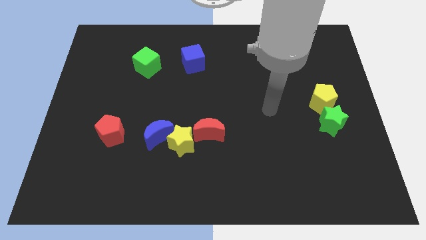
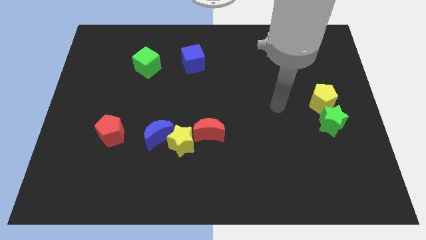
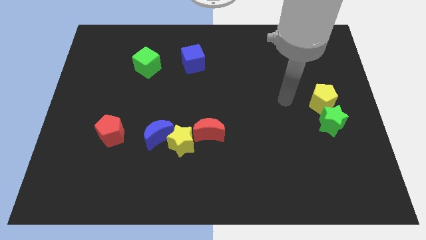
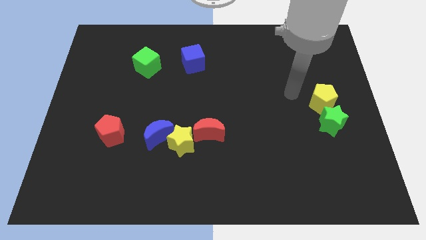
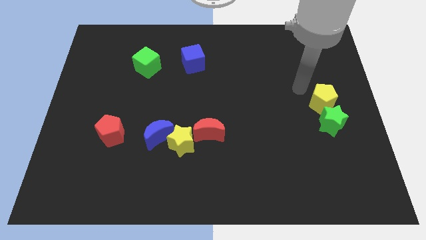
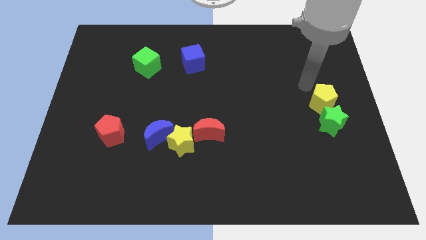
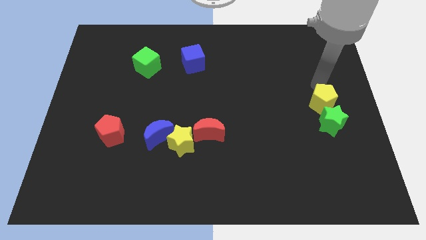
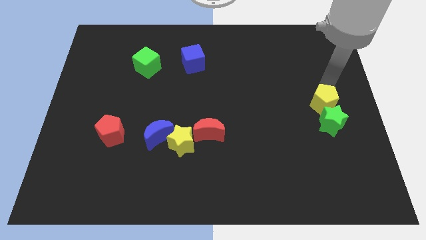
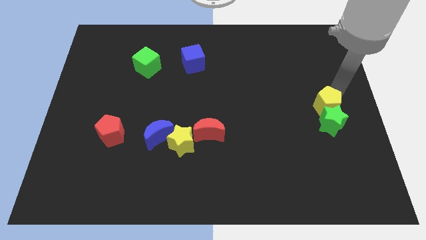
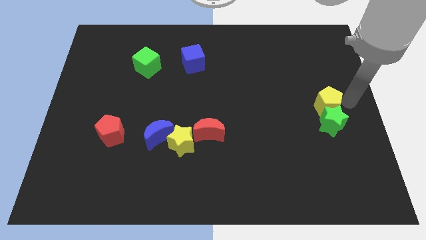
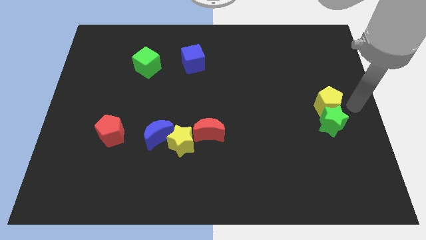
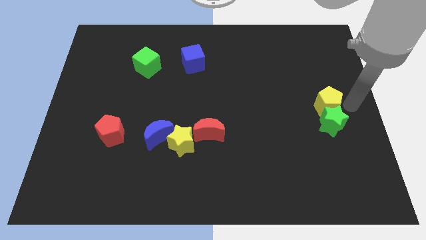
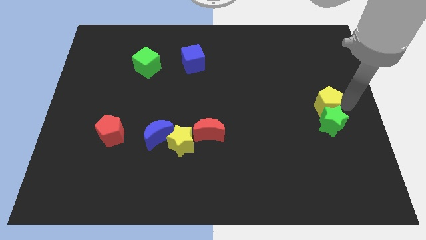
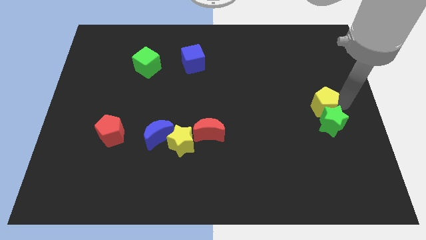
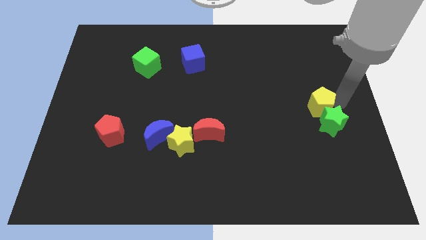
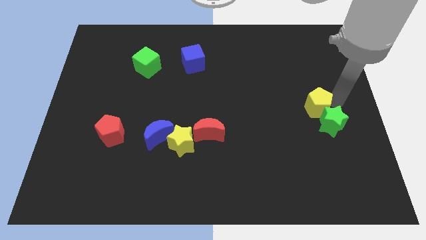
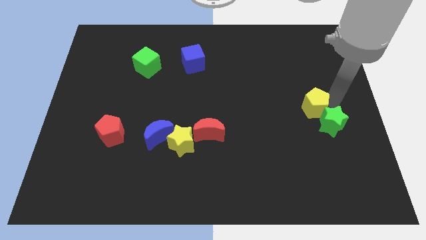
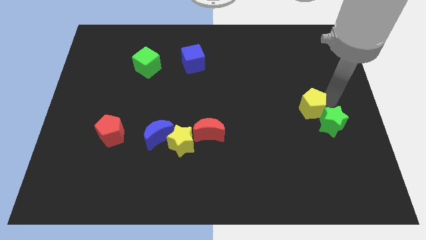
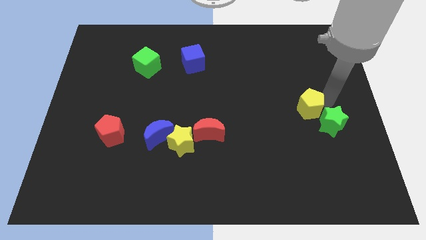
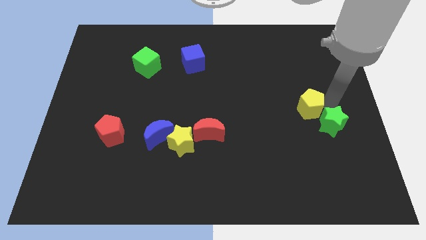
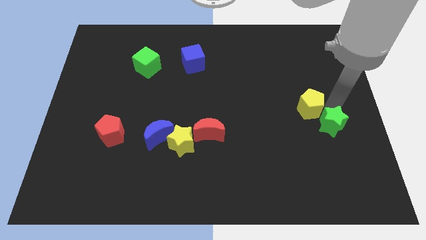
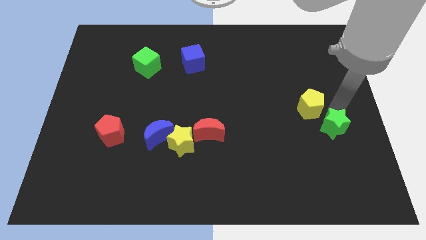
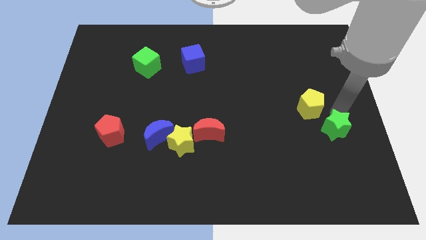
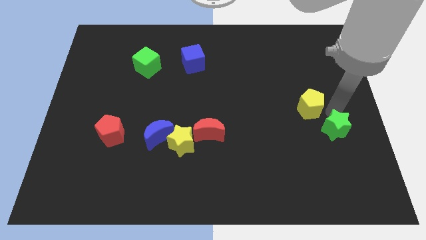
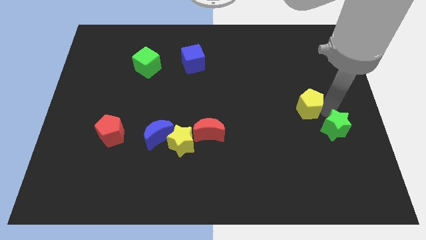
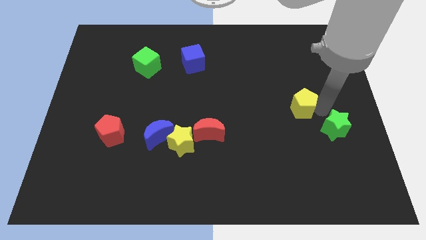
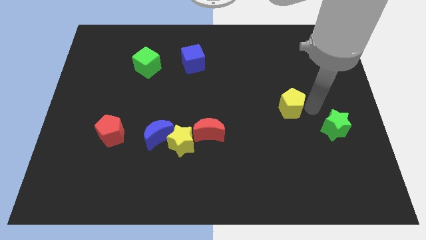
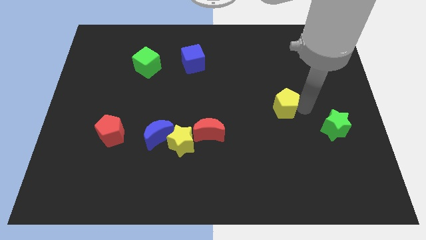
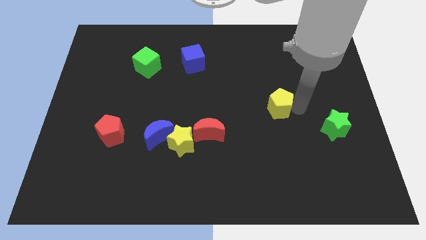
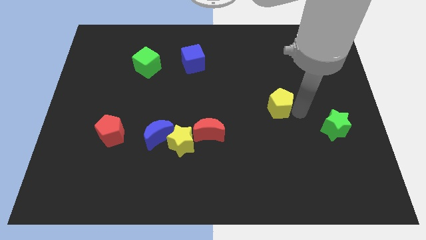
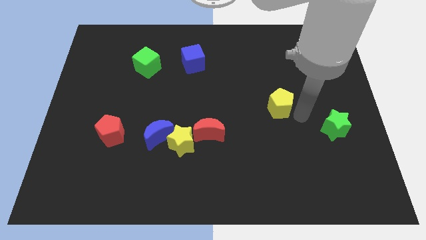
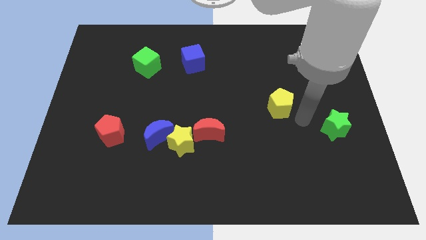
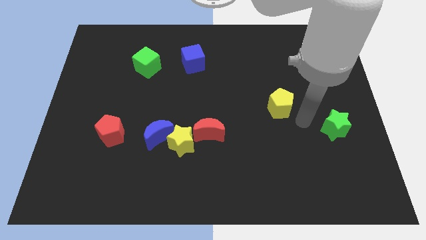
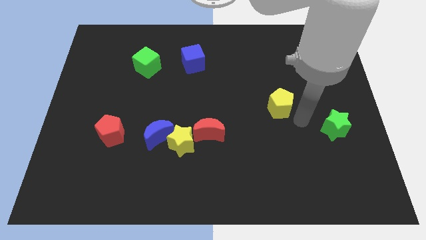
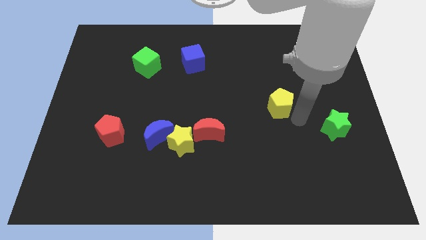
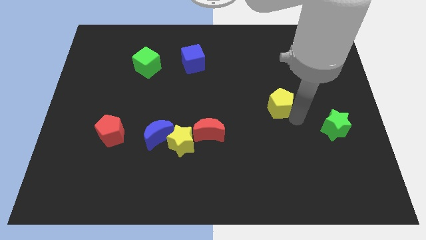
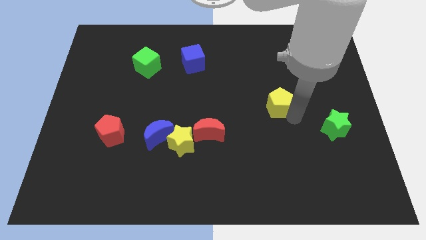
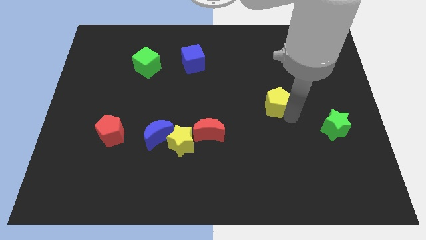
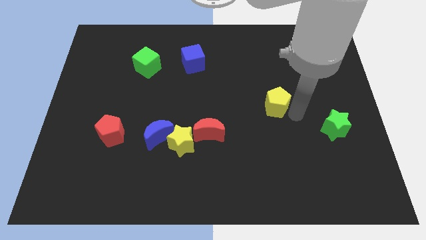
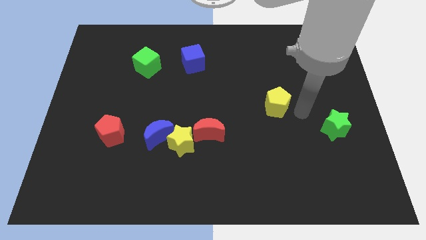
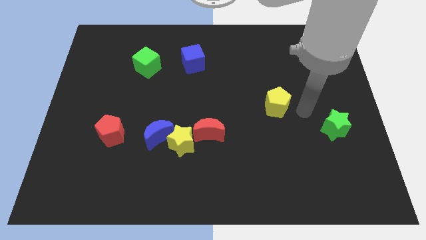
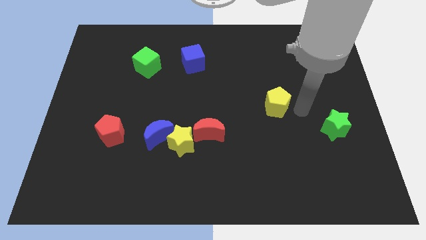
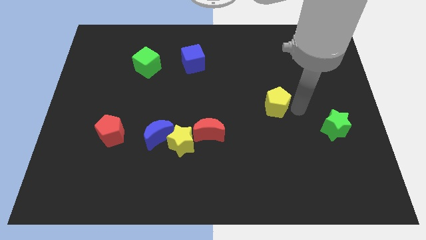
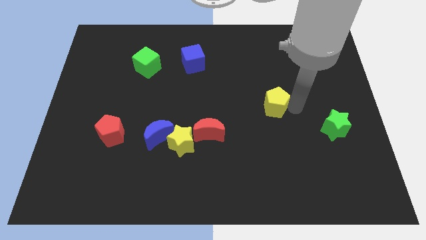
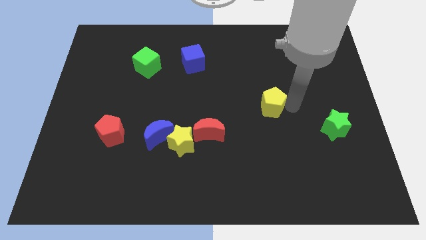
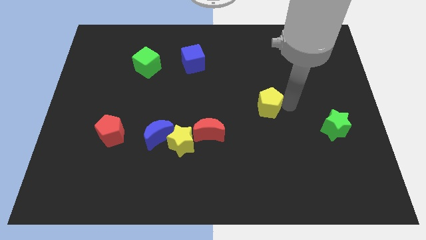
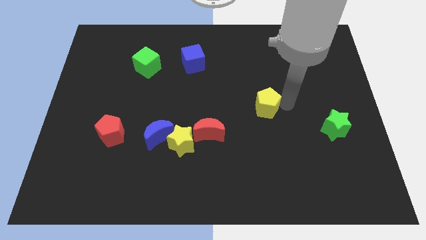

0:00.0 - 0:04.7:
put the yellow pentagon to the middle

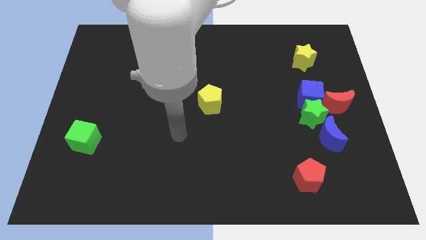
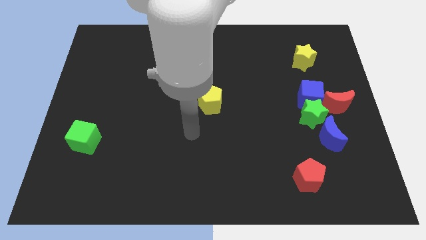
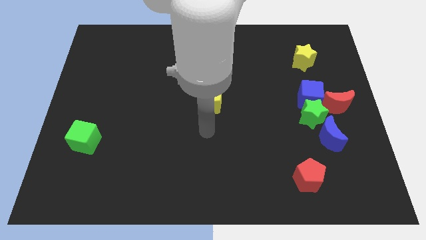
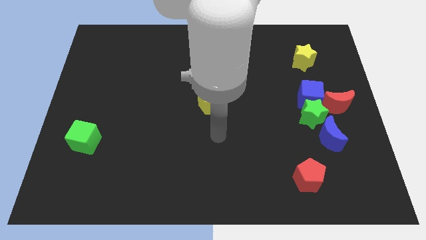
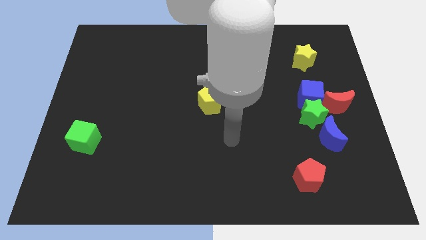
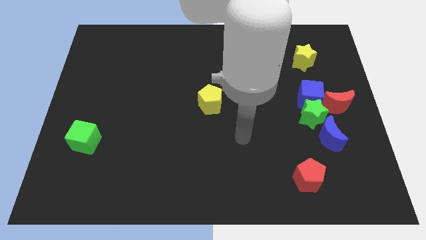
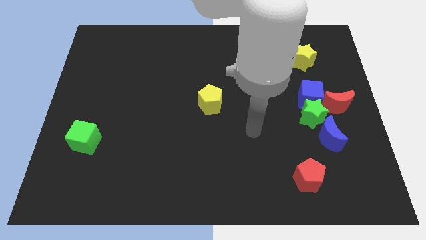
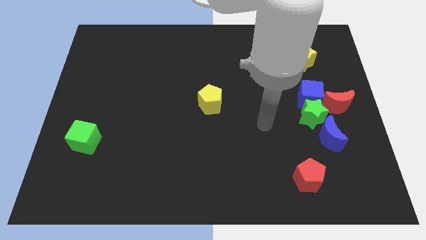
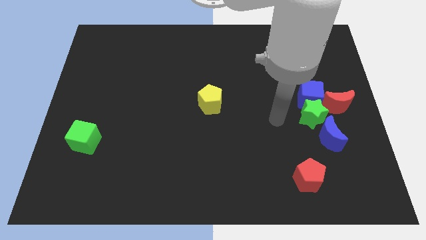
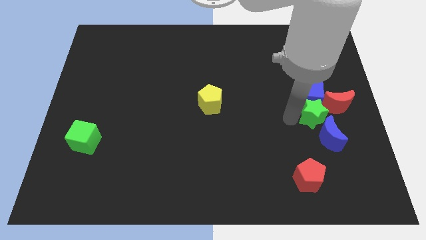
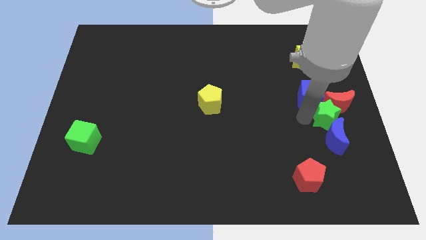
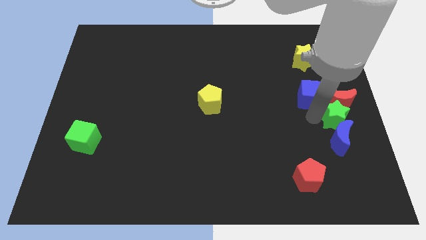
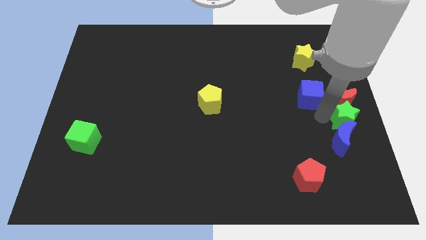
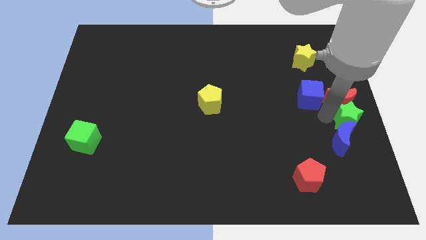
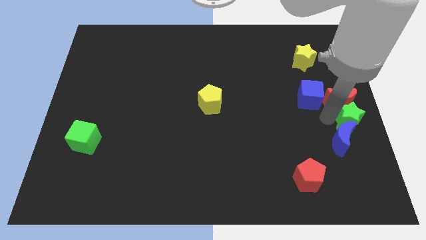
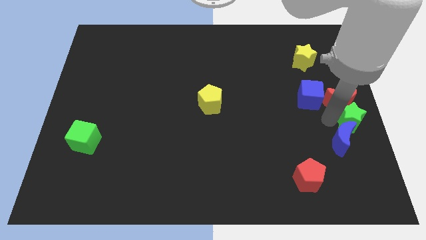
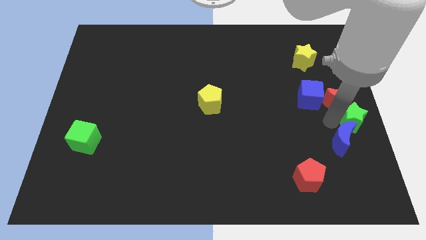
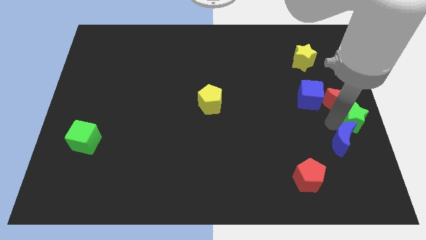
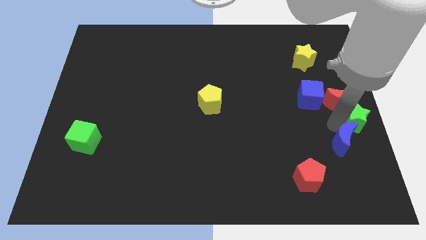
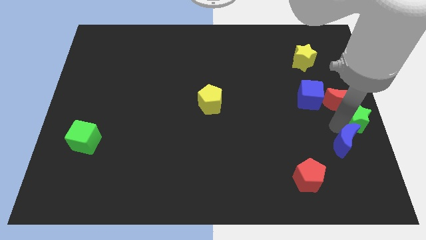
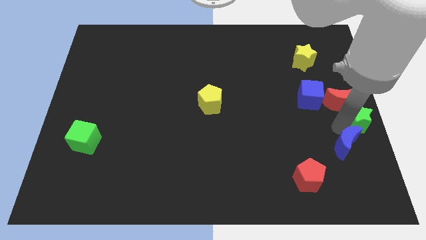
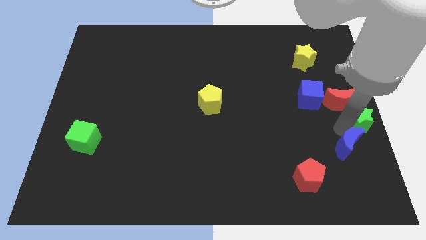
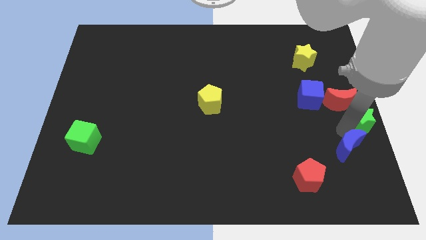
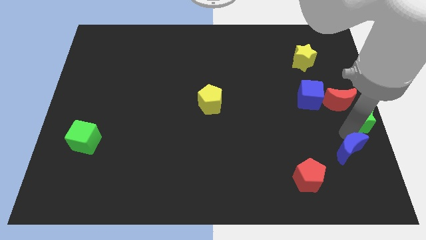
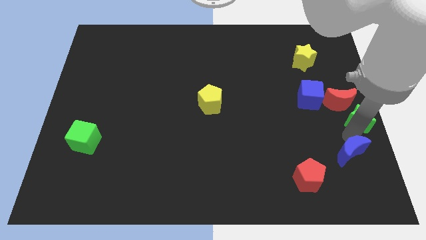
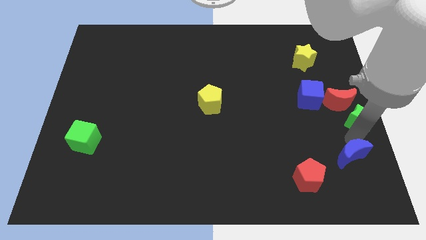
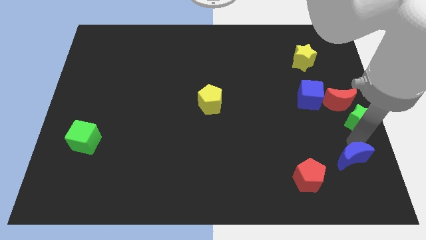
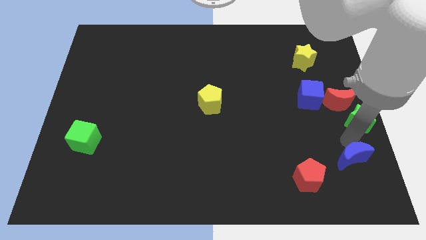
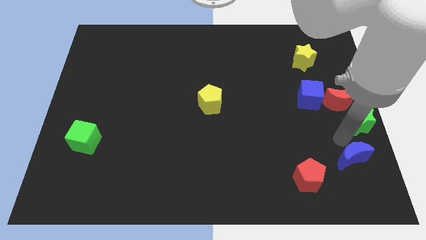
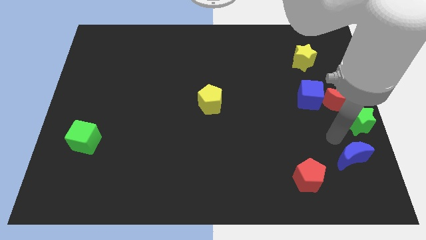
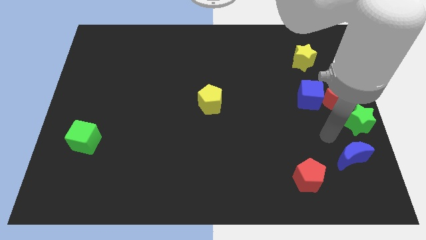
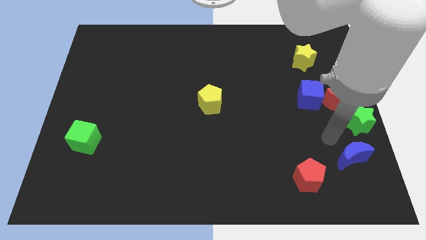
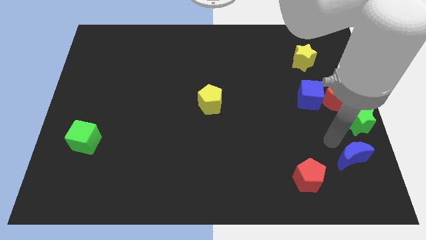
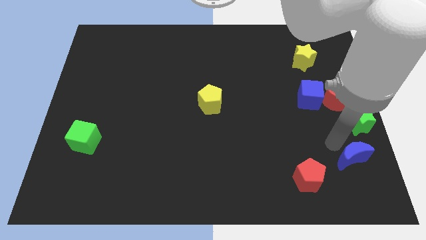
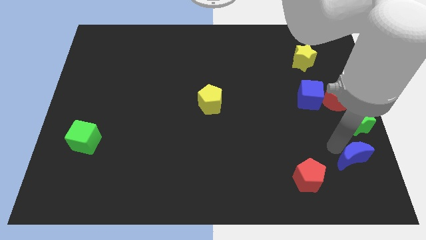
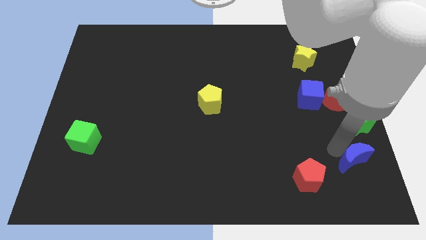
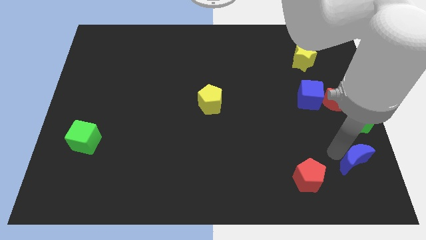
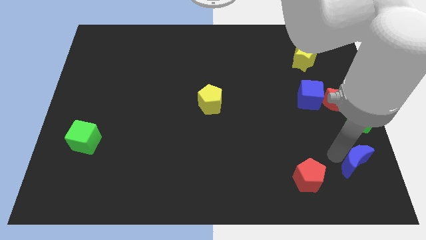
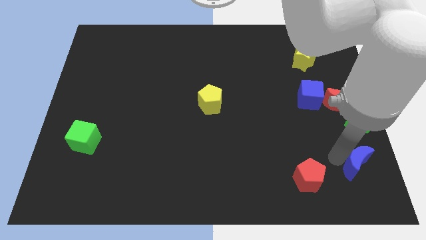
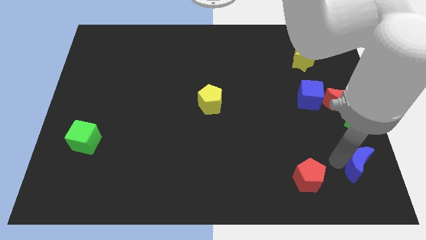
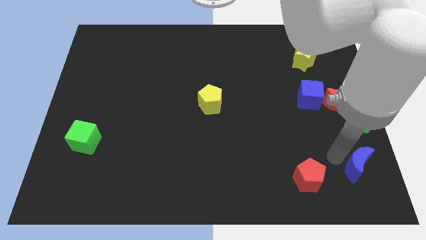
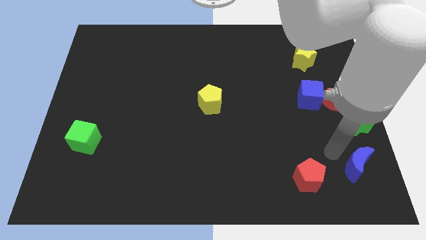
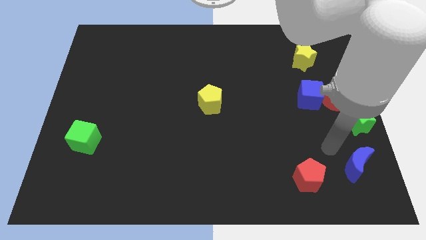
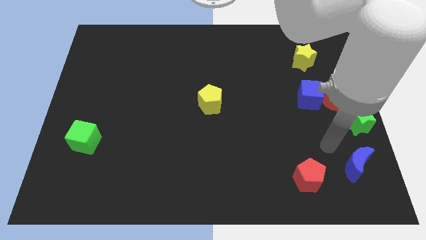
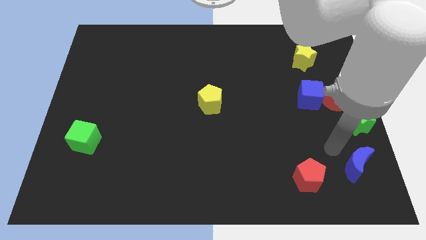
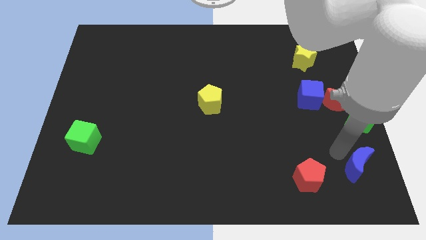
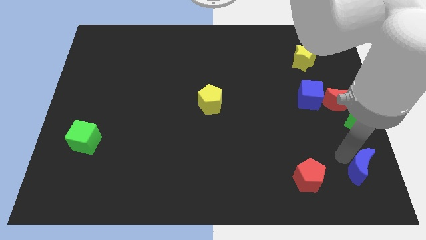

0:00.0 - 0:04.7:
put the blue moon to the lower right corner
